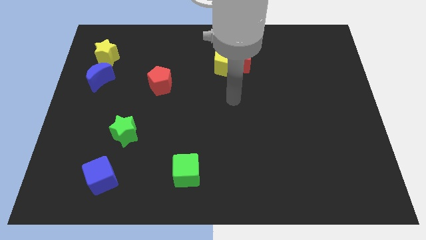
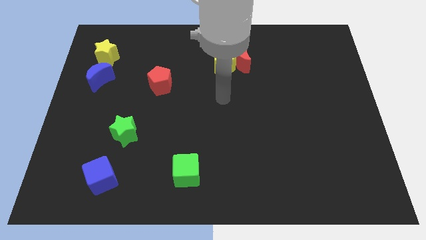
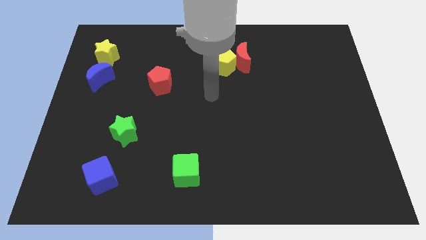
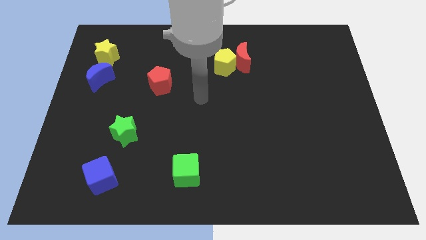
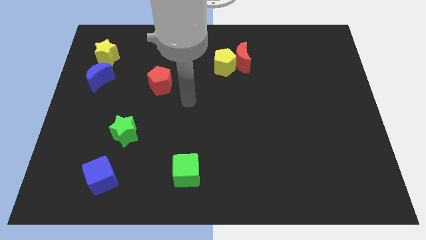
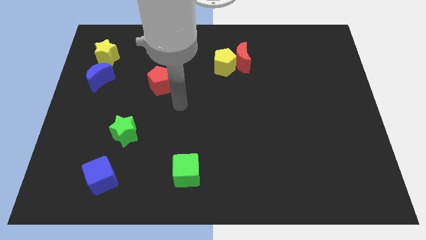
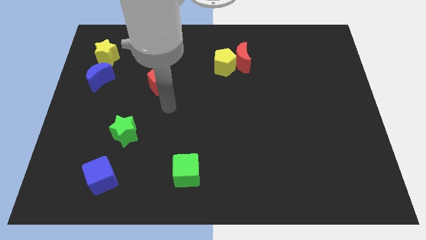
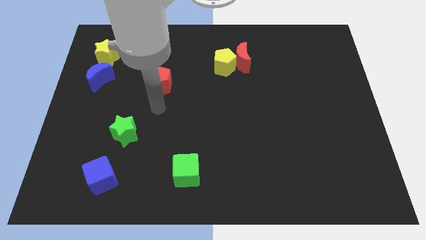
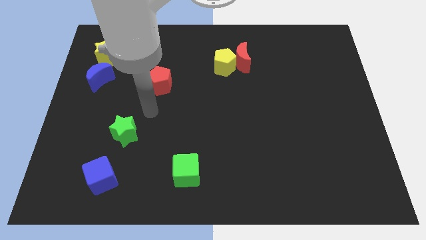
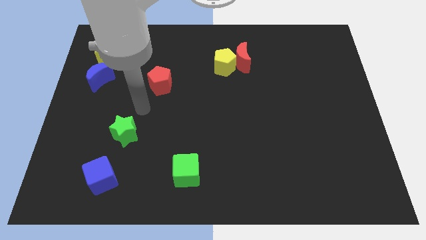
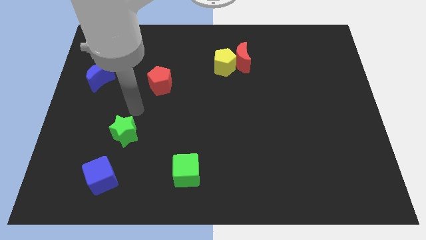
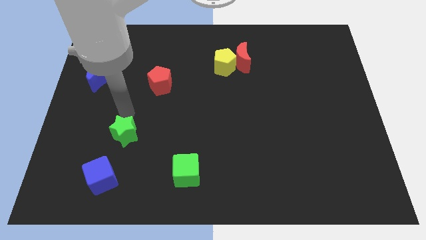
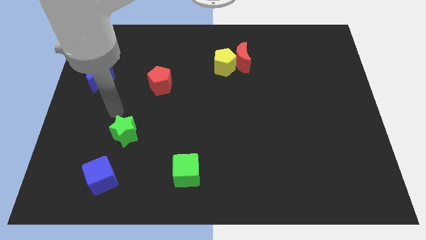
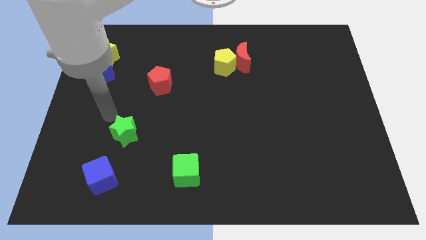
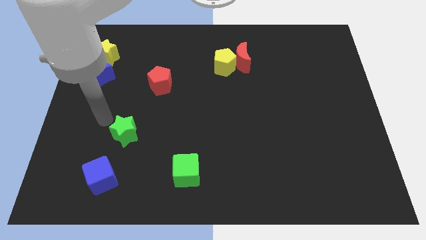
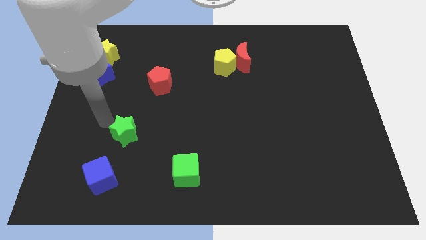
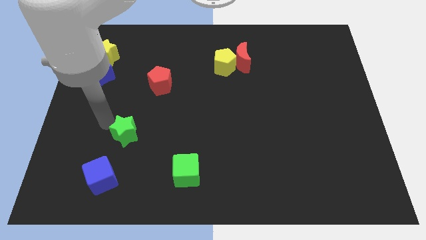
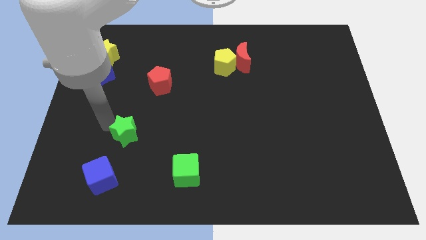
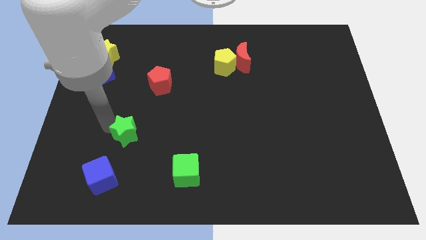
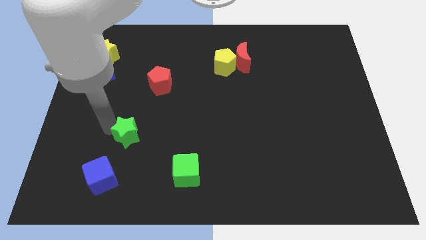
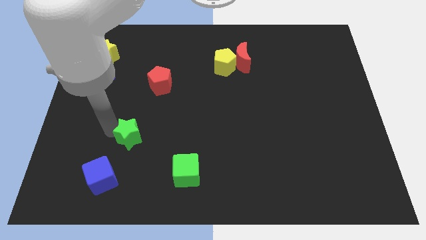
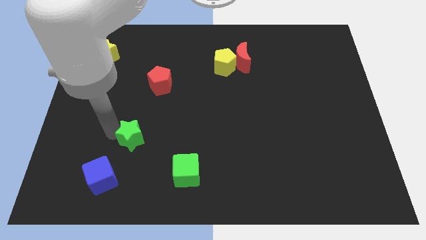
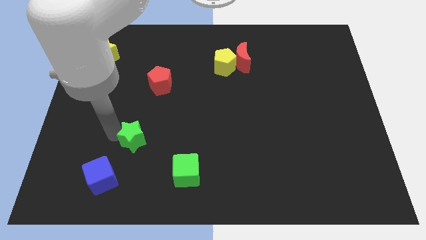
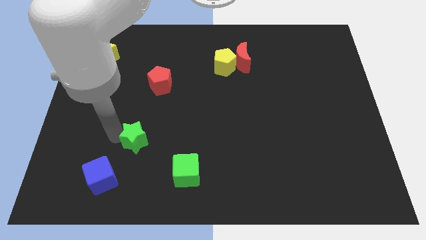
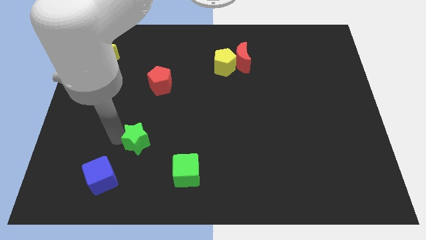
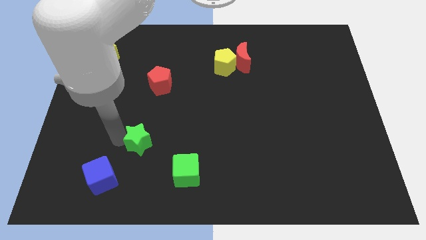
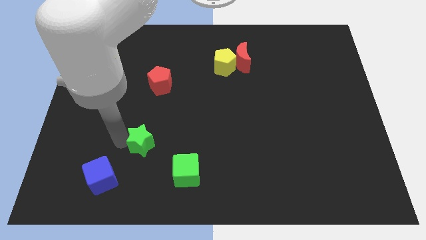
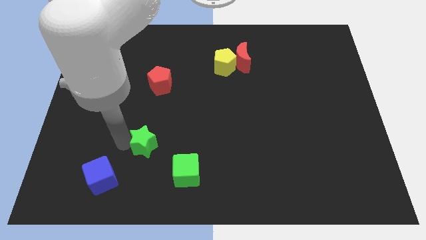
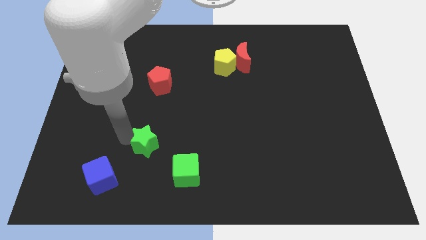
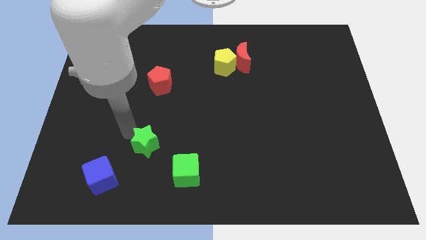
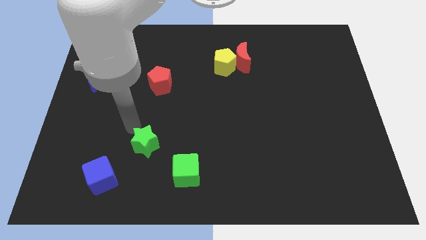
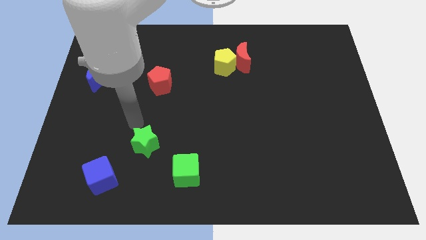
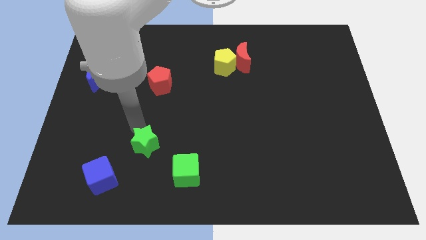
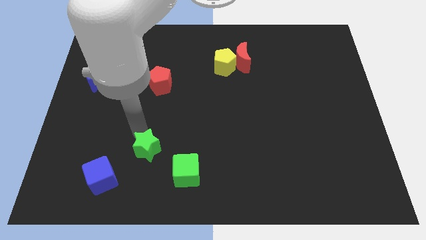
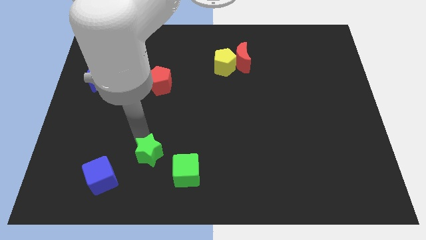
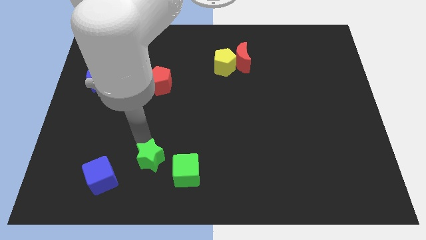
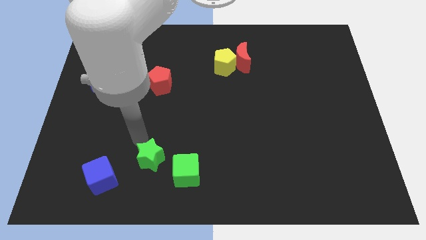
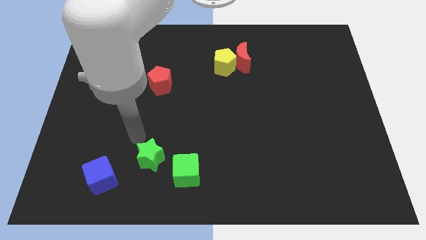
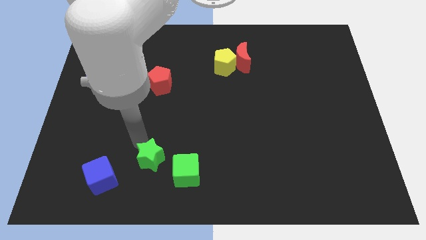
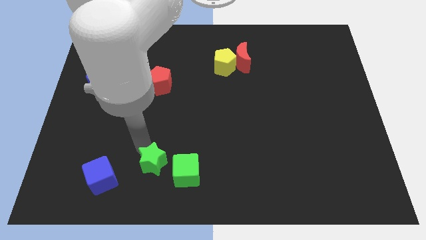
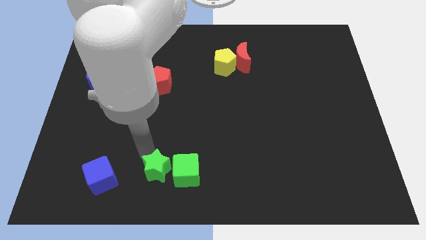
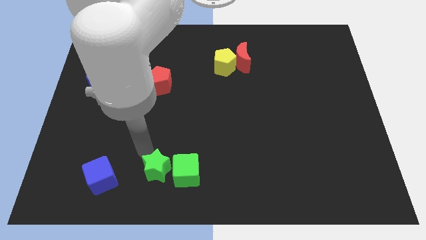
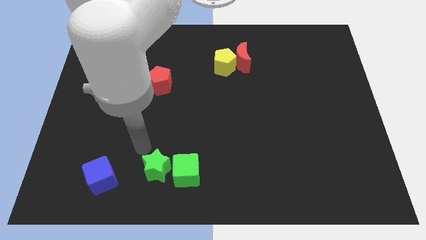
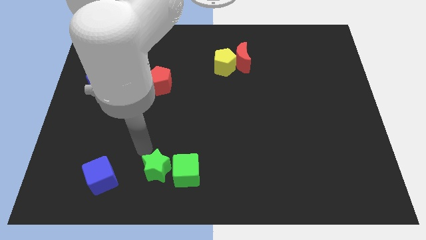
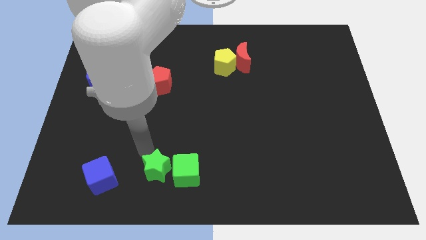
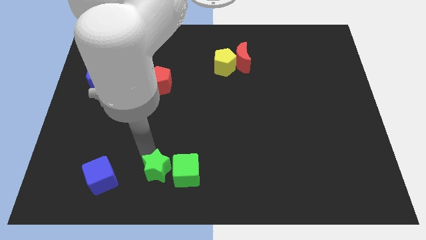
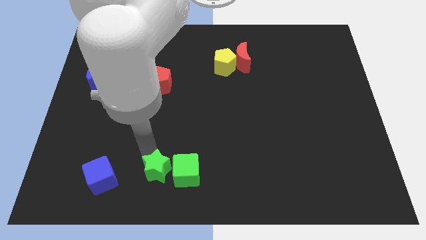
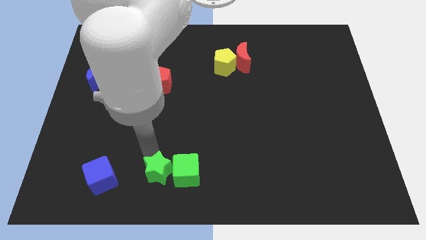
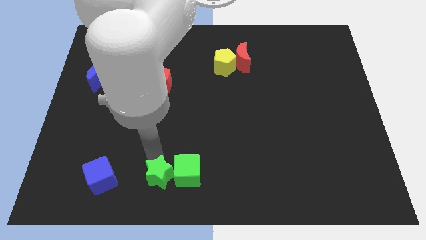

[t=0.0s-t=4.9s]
put the green star to the bottom side

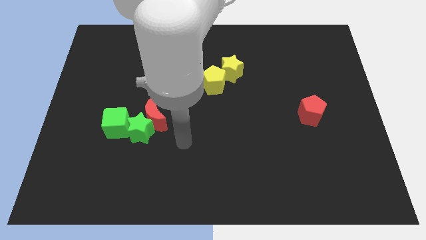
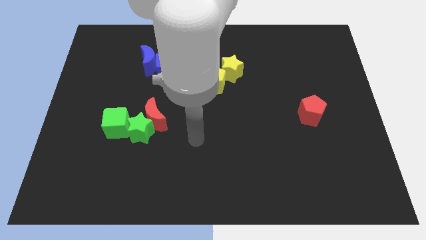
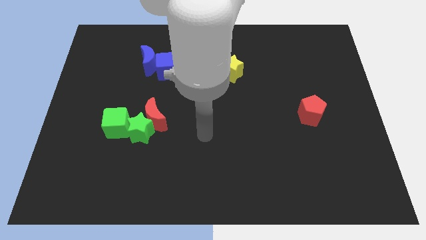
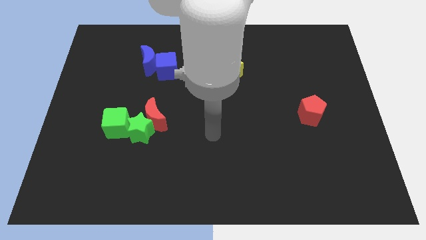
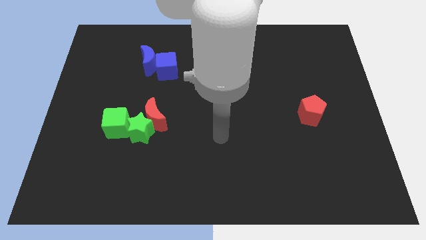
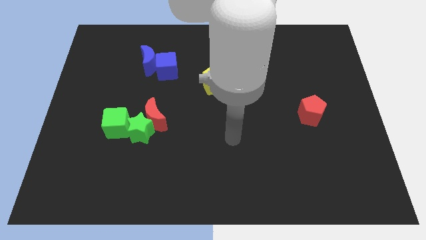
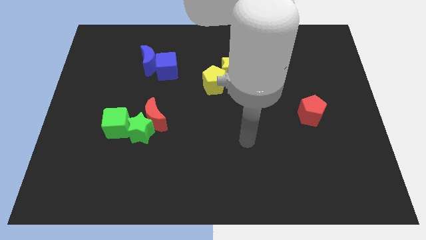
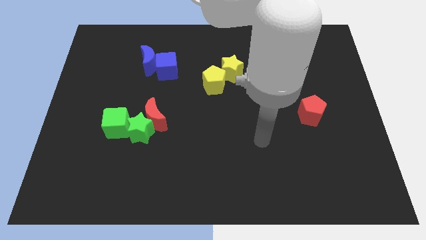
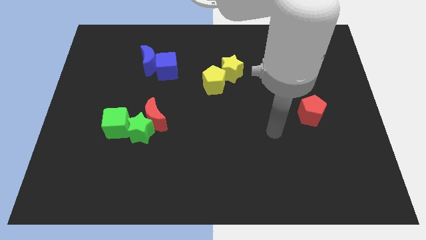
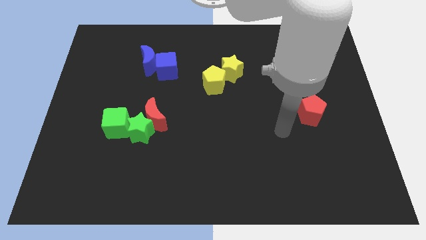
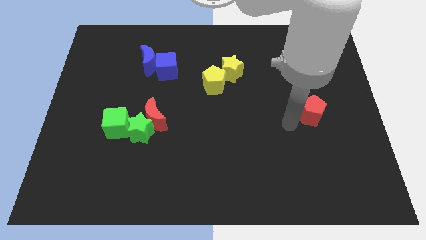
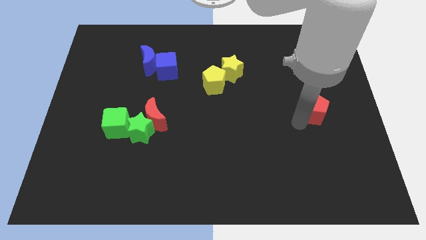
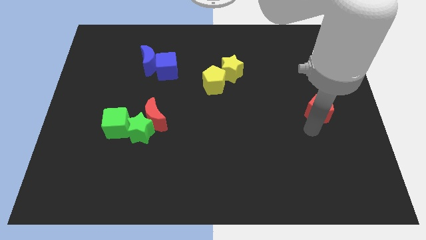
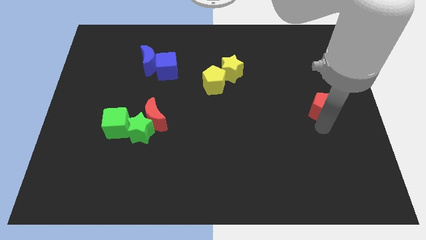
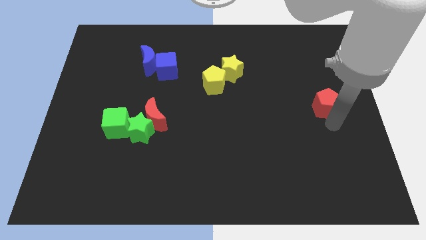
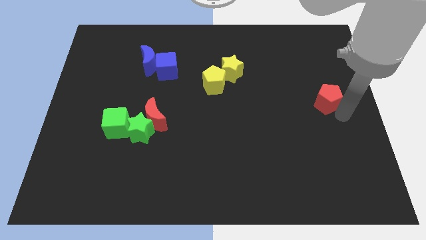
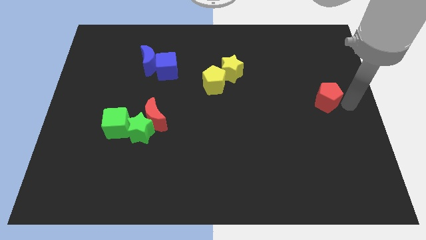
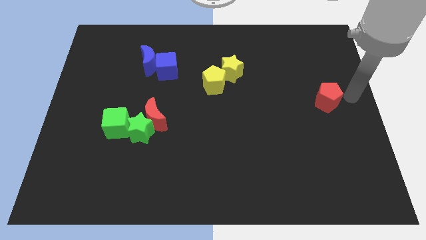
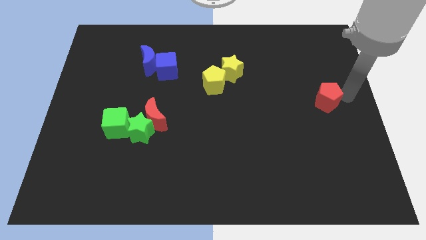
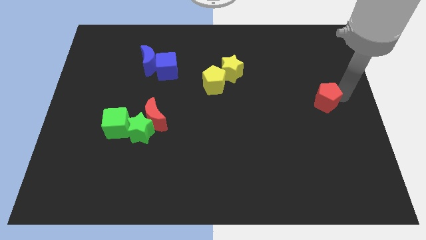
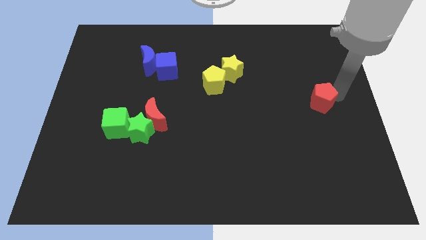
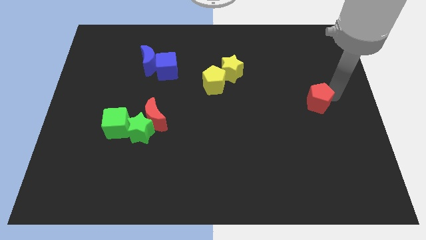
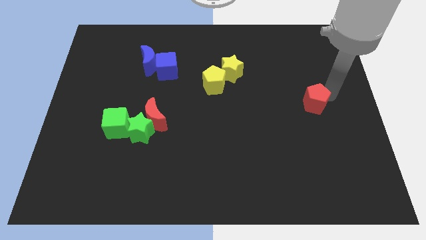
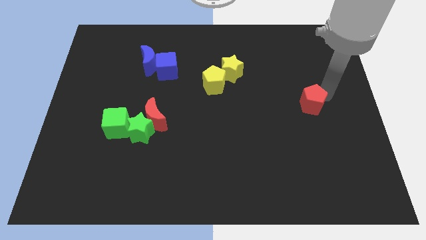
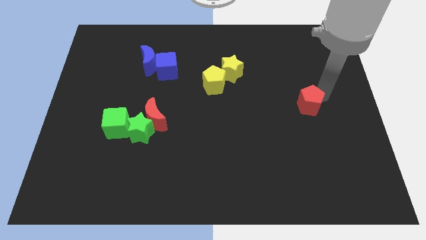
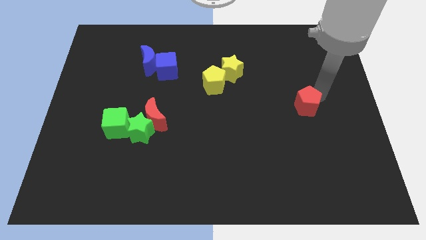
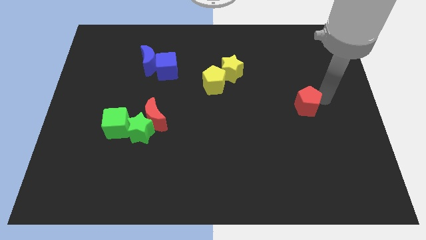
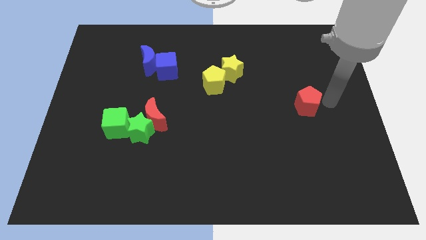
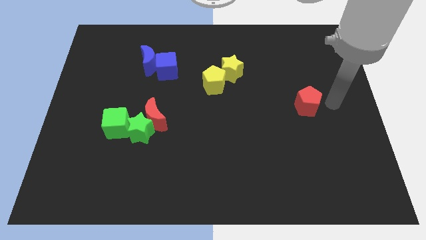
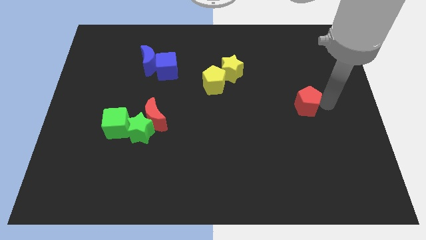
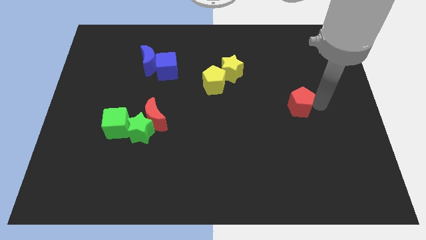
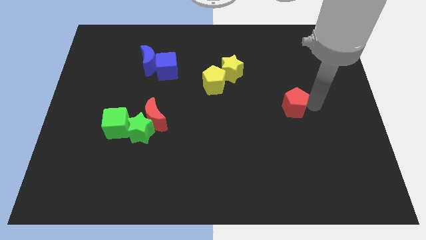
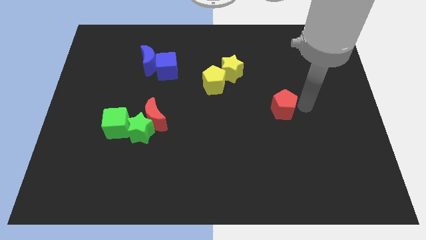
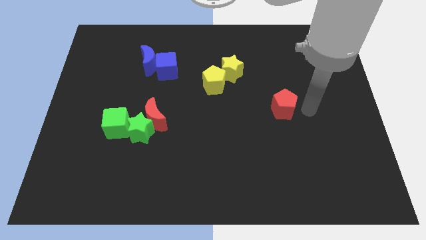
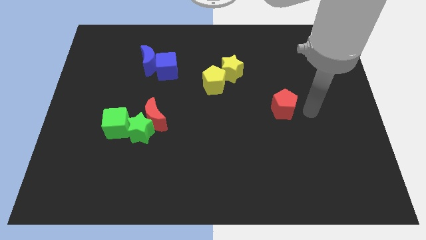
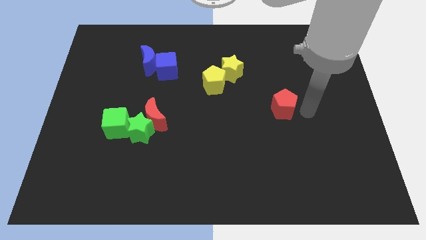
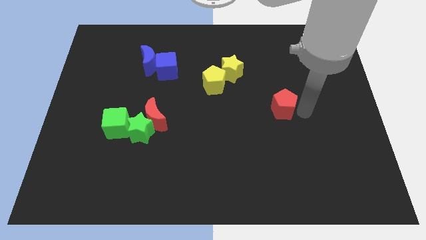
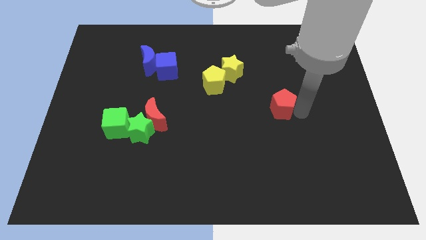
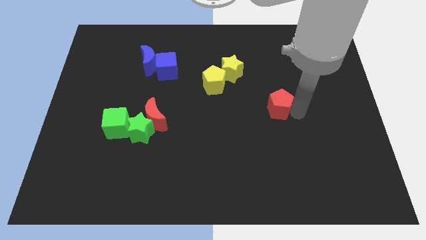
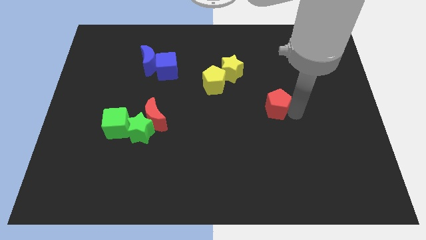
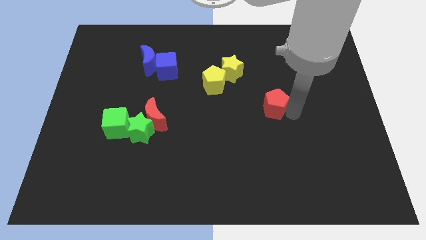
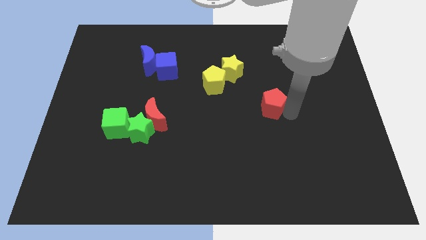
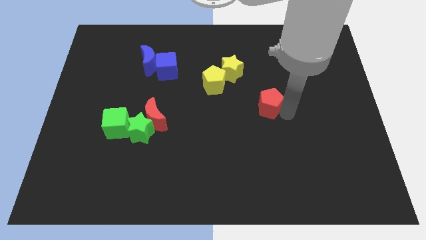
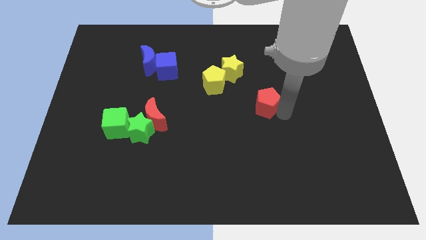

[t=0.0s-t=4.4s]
move the red pentagon to the center of the board
